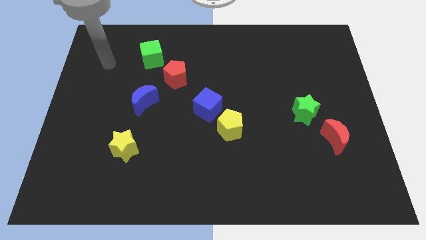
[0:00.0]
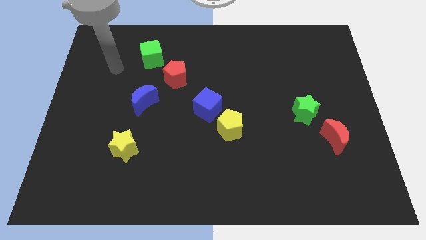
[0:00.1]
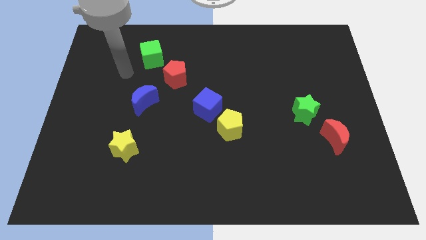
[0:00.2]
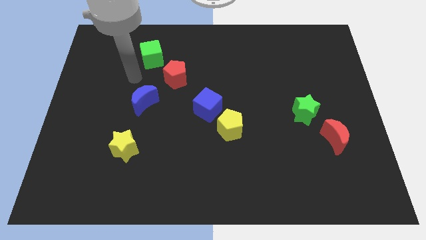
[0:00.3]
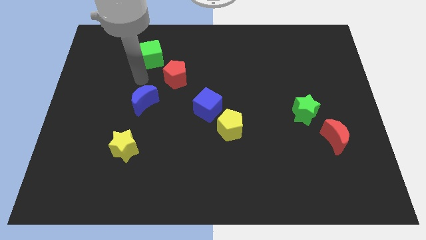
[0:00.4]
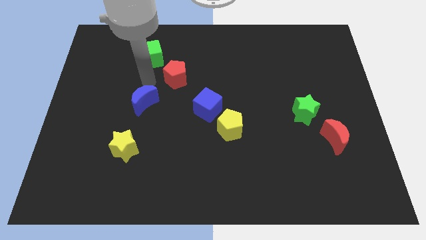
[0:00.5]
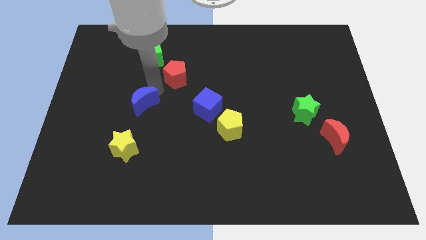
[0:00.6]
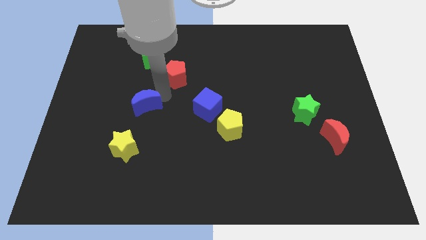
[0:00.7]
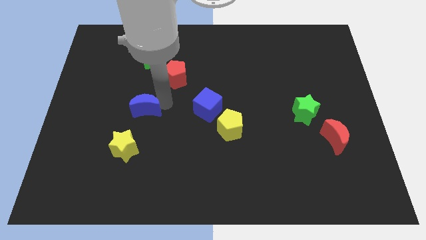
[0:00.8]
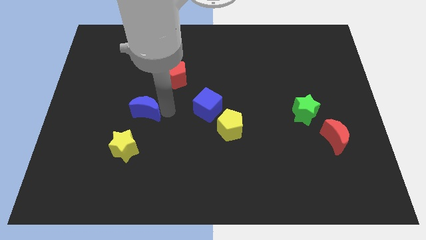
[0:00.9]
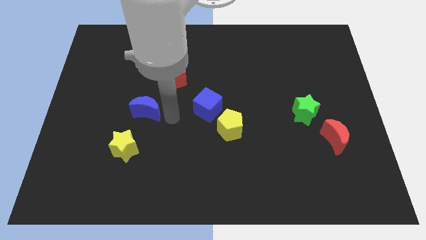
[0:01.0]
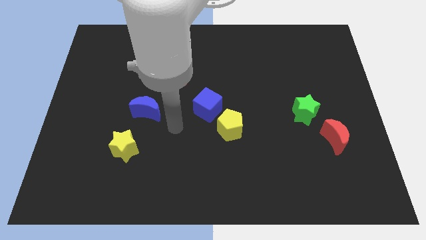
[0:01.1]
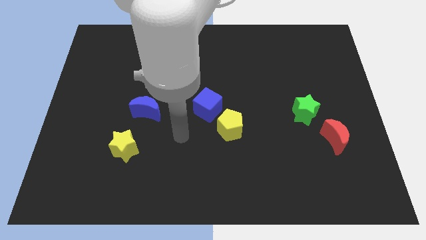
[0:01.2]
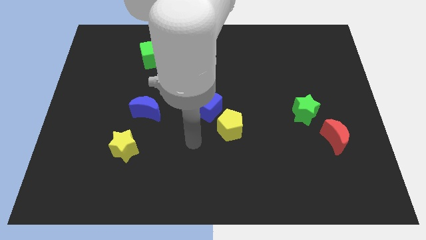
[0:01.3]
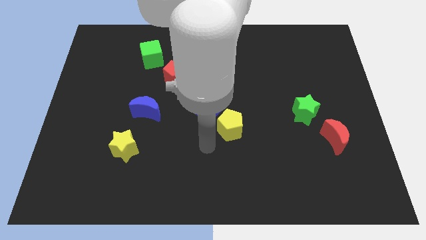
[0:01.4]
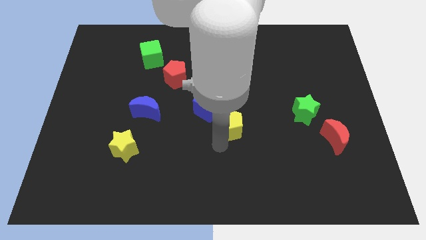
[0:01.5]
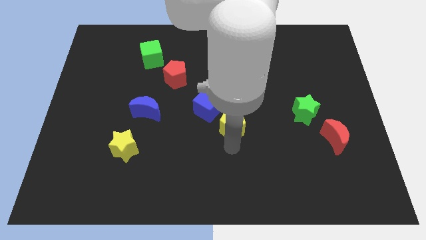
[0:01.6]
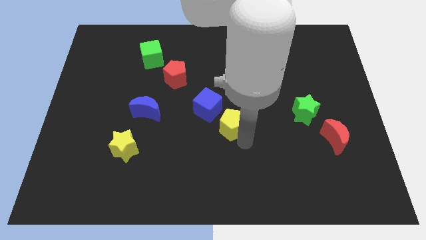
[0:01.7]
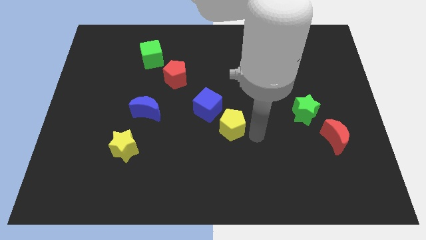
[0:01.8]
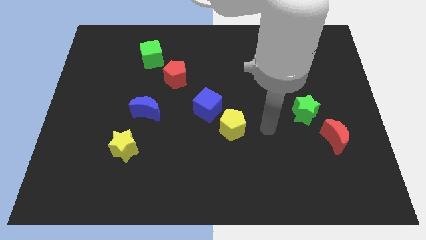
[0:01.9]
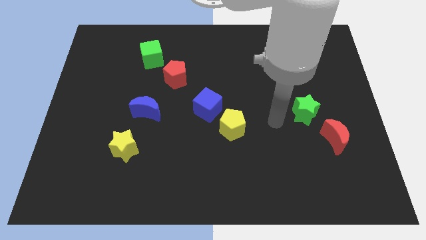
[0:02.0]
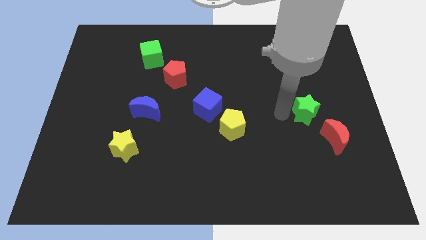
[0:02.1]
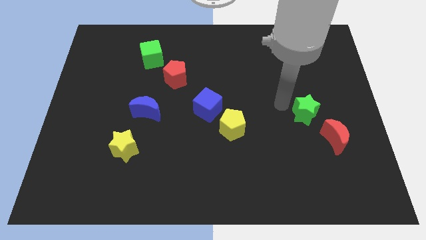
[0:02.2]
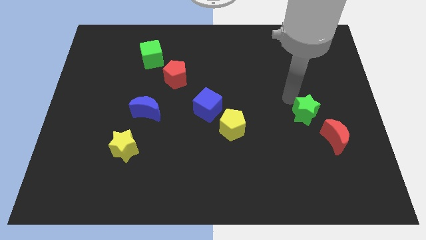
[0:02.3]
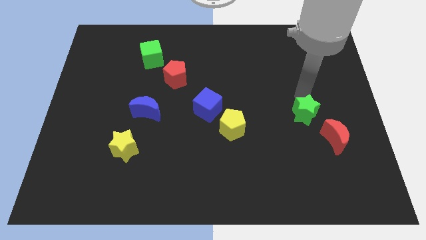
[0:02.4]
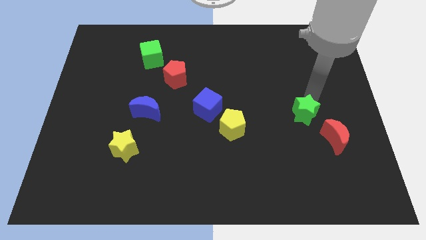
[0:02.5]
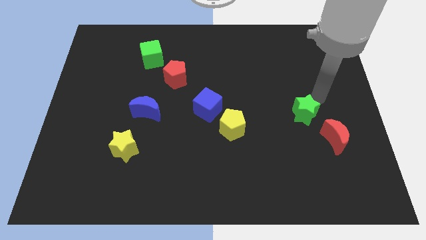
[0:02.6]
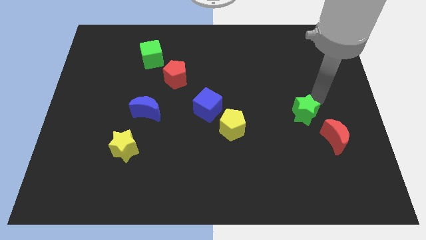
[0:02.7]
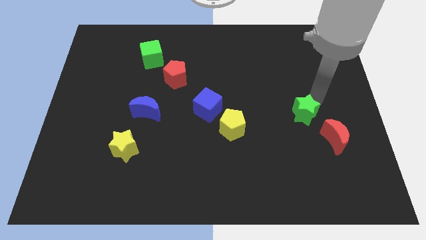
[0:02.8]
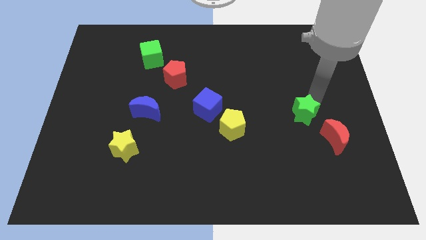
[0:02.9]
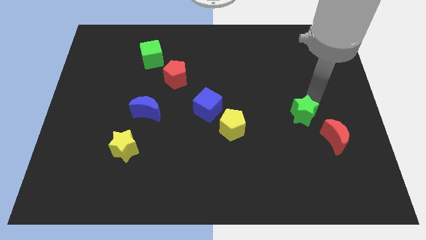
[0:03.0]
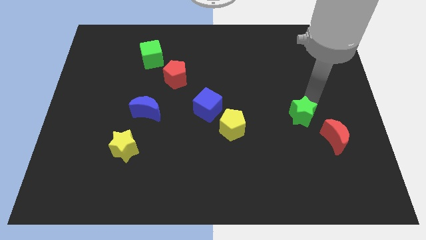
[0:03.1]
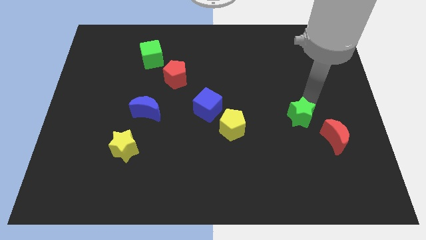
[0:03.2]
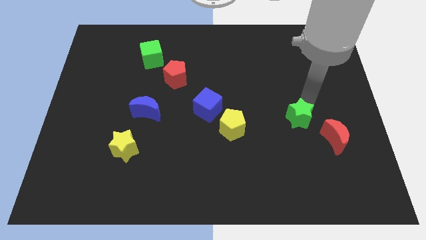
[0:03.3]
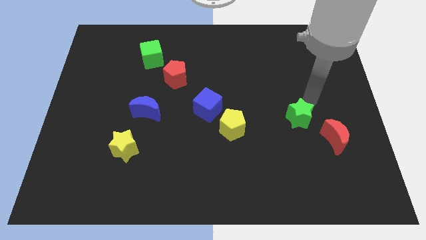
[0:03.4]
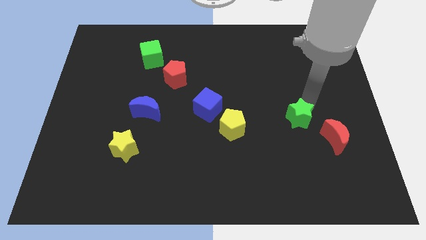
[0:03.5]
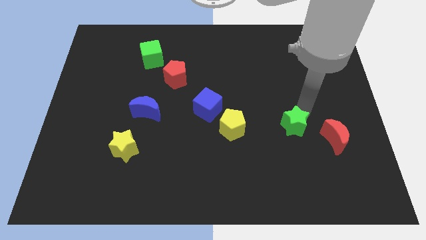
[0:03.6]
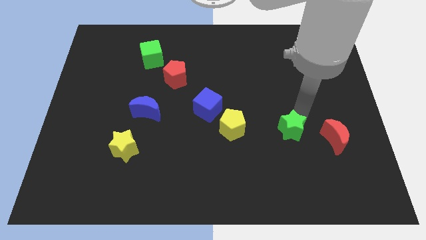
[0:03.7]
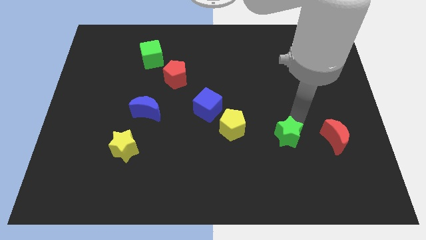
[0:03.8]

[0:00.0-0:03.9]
slide the green star a bit diagonally downwards and left

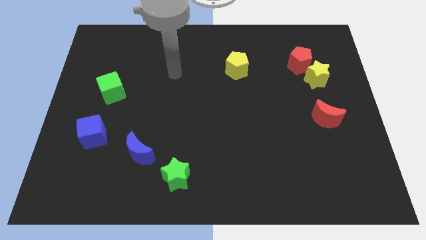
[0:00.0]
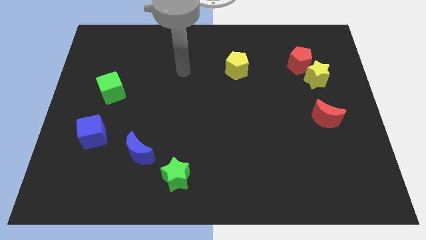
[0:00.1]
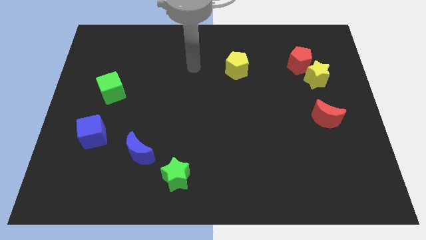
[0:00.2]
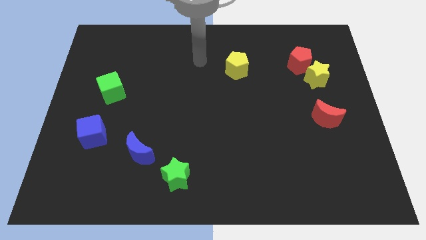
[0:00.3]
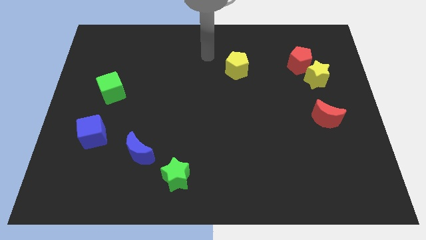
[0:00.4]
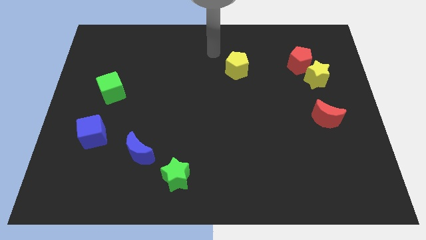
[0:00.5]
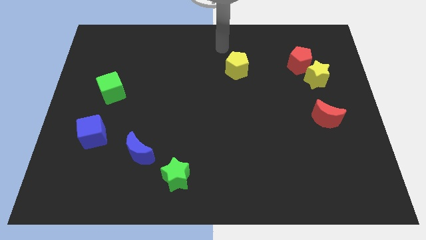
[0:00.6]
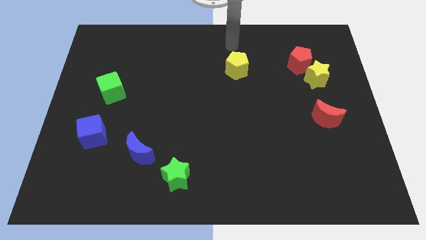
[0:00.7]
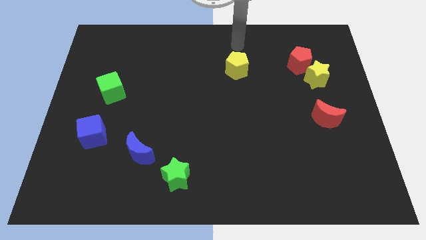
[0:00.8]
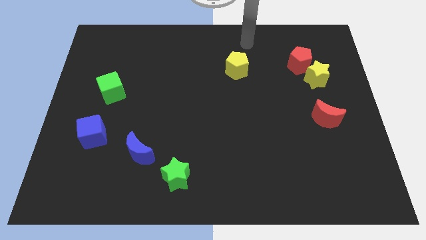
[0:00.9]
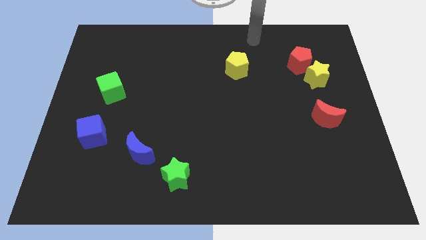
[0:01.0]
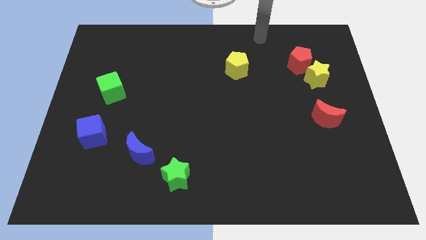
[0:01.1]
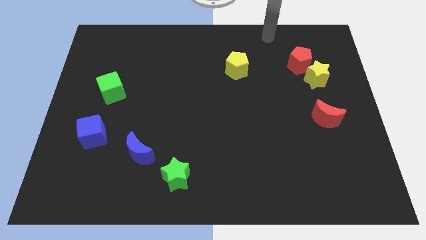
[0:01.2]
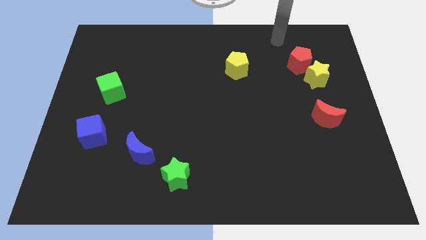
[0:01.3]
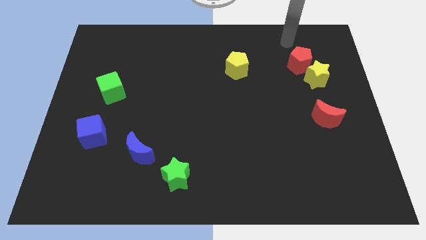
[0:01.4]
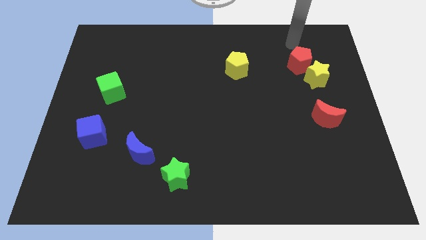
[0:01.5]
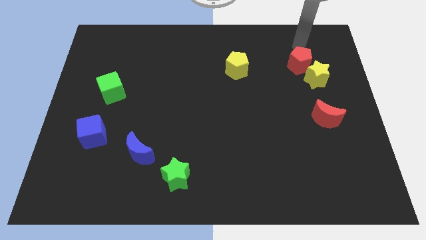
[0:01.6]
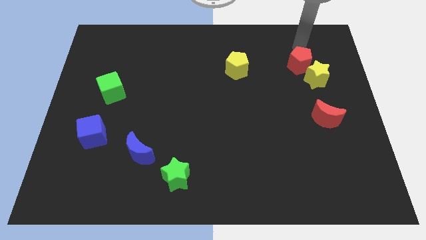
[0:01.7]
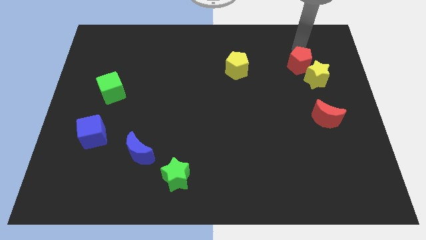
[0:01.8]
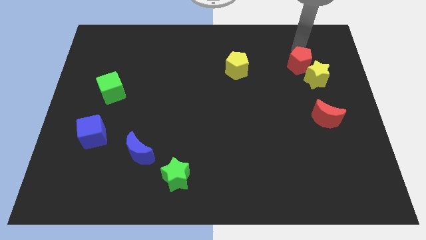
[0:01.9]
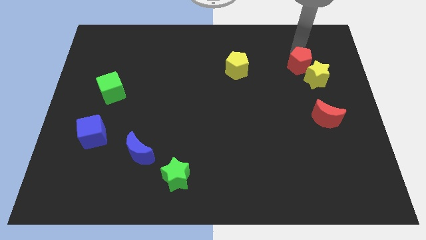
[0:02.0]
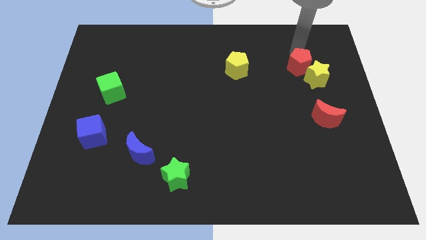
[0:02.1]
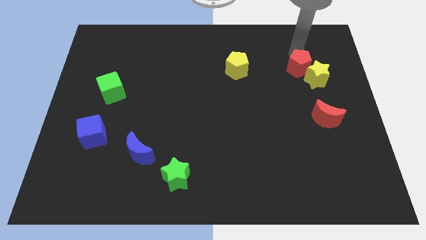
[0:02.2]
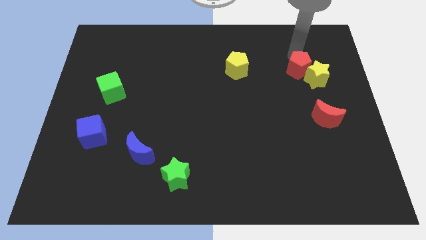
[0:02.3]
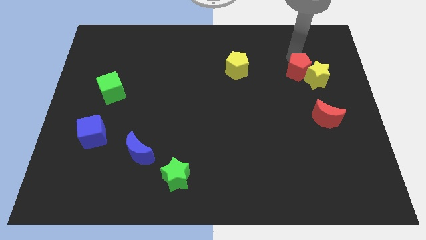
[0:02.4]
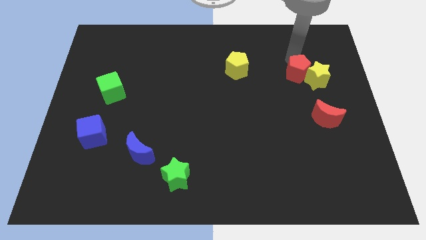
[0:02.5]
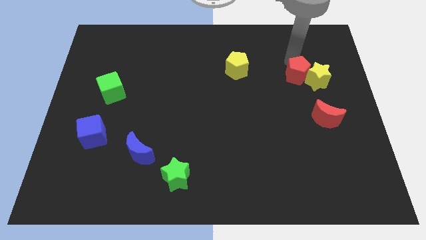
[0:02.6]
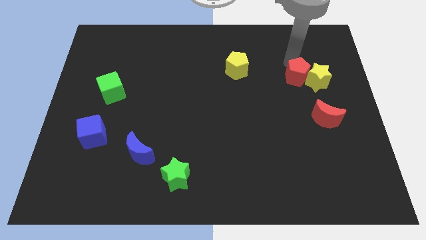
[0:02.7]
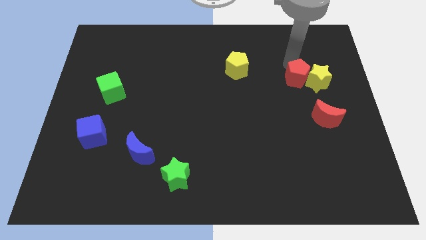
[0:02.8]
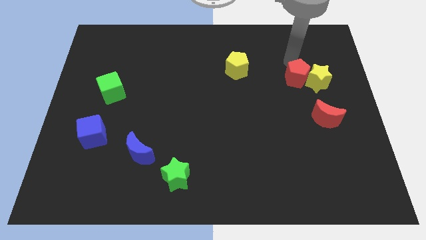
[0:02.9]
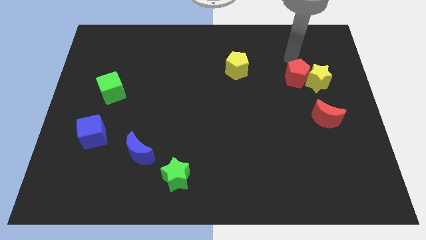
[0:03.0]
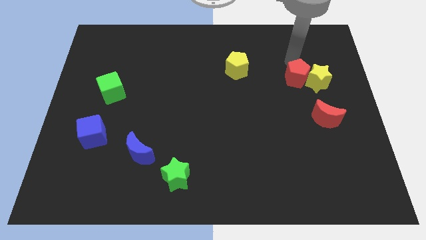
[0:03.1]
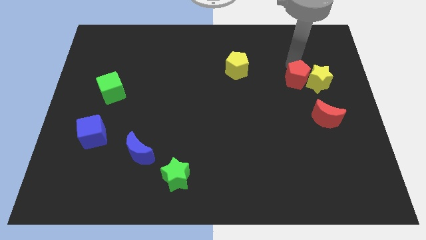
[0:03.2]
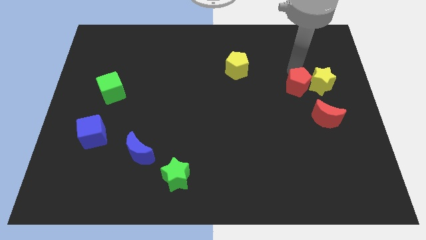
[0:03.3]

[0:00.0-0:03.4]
move the red pentagon a bit down

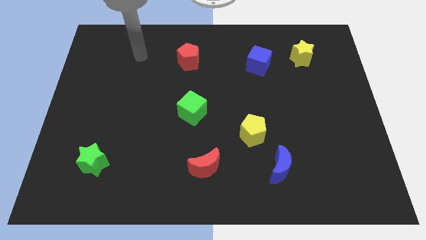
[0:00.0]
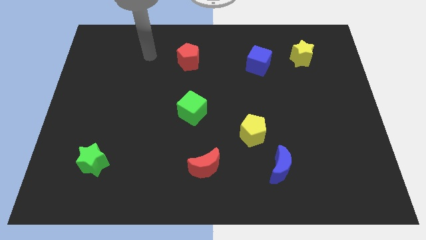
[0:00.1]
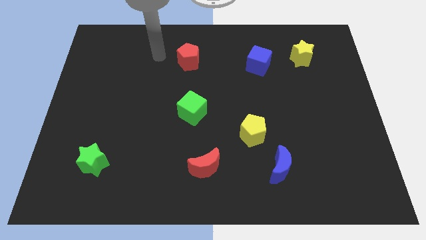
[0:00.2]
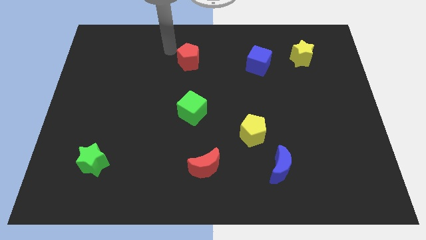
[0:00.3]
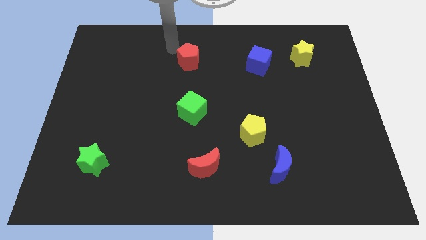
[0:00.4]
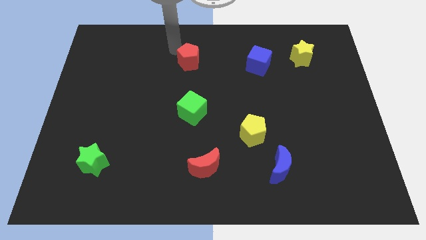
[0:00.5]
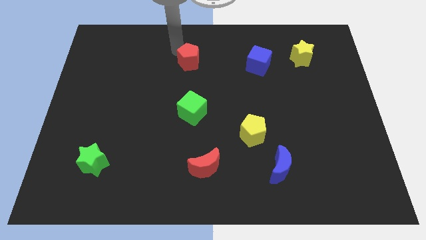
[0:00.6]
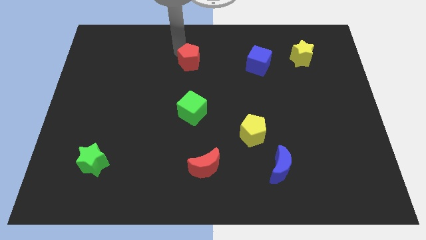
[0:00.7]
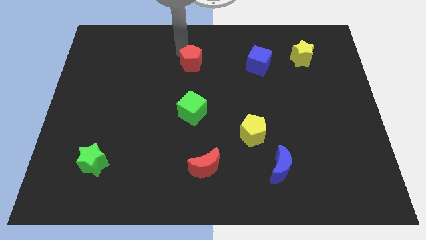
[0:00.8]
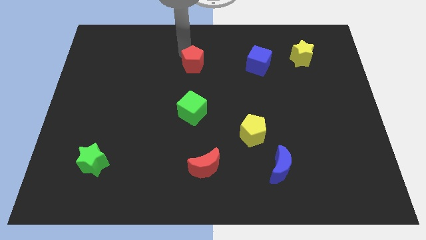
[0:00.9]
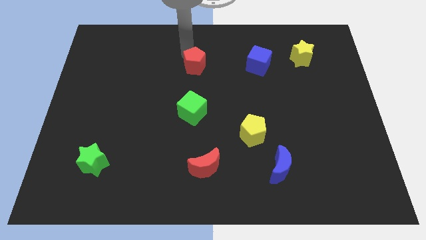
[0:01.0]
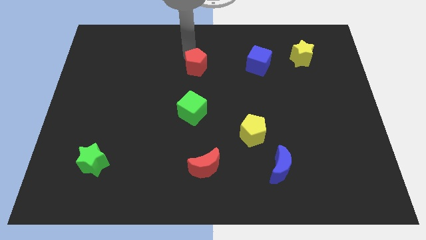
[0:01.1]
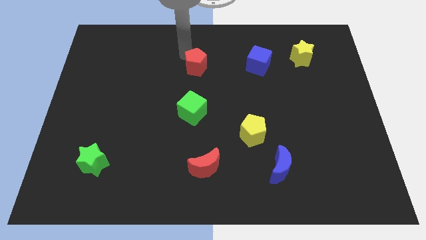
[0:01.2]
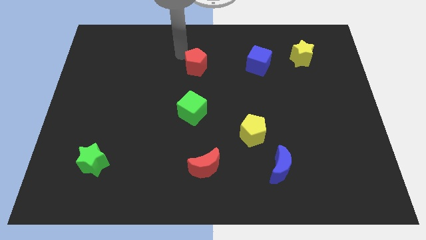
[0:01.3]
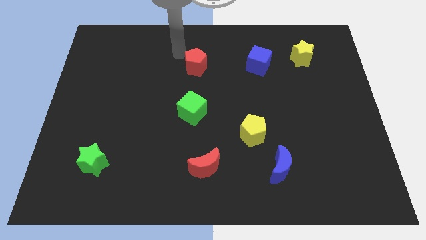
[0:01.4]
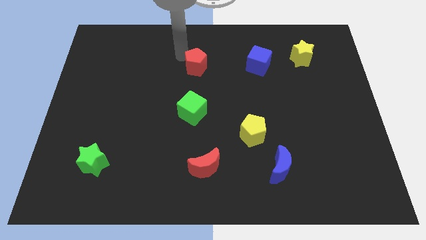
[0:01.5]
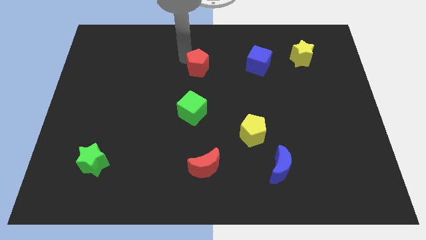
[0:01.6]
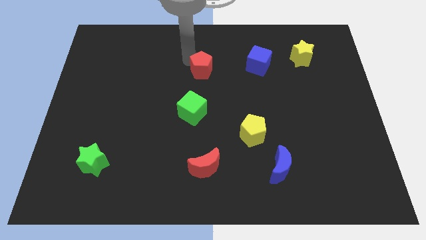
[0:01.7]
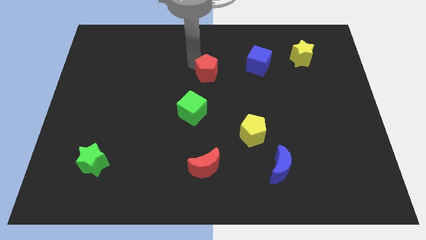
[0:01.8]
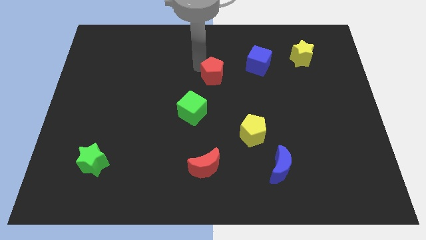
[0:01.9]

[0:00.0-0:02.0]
push the red pentagon a little bit downwards and right diagonally
